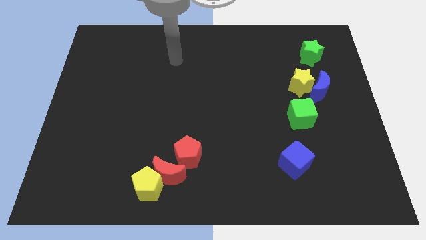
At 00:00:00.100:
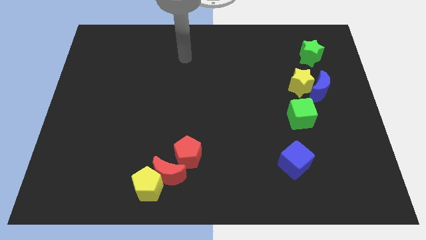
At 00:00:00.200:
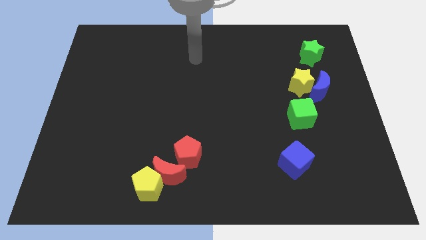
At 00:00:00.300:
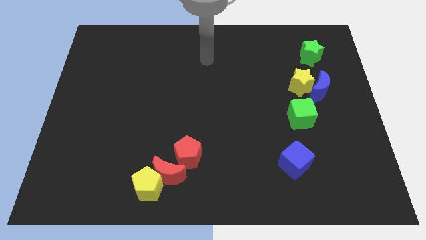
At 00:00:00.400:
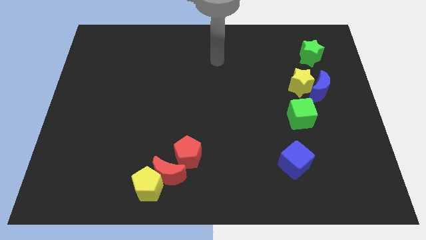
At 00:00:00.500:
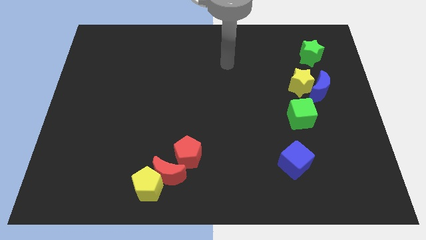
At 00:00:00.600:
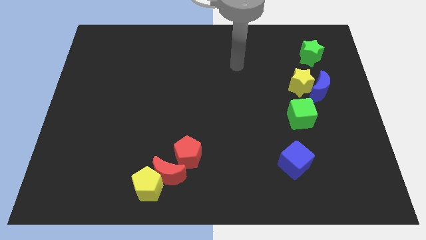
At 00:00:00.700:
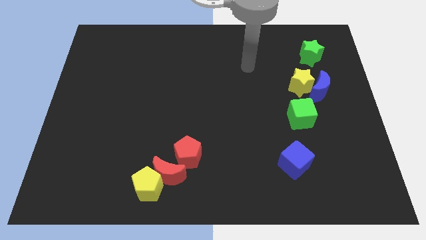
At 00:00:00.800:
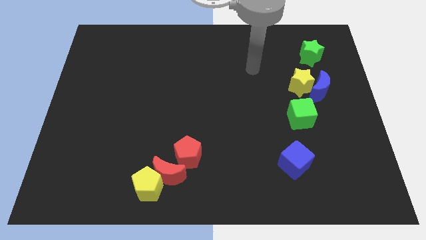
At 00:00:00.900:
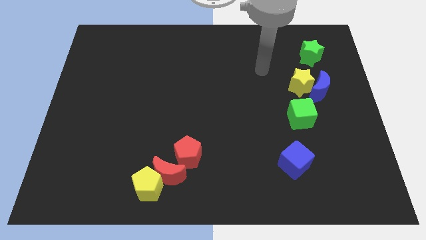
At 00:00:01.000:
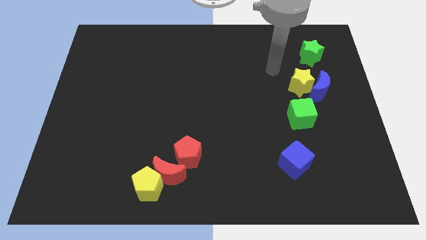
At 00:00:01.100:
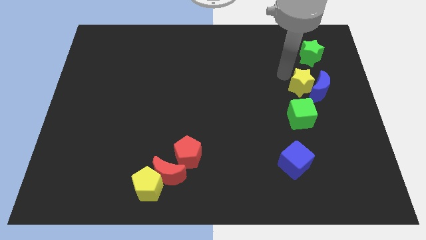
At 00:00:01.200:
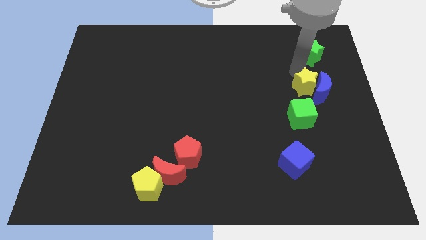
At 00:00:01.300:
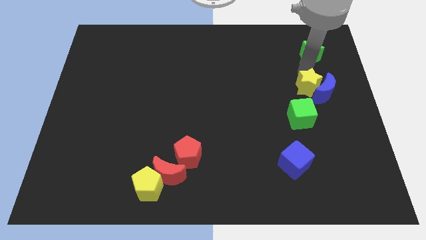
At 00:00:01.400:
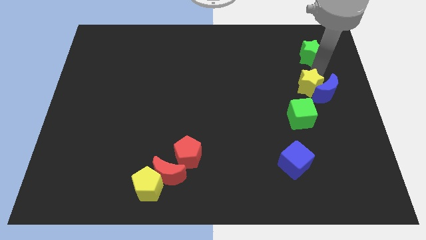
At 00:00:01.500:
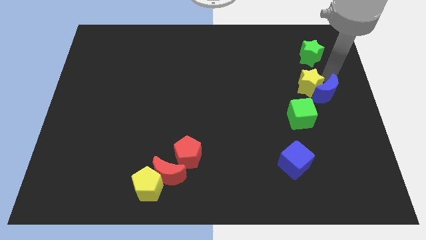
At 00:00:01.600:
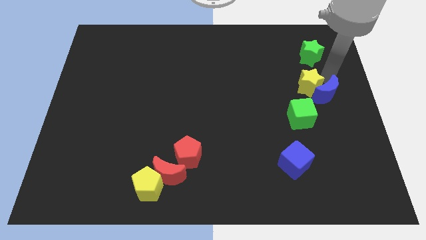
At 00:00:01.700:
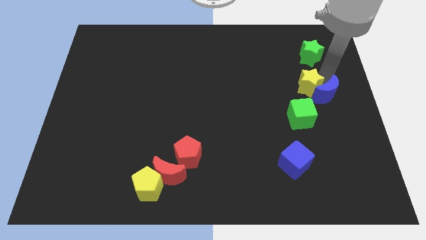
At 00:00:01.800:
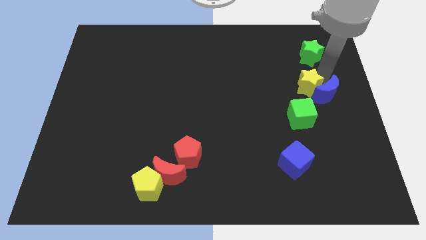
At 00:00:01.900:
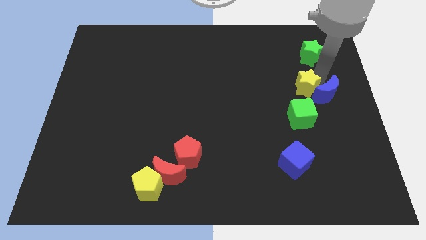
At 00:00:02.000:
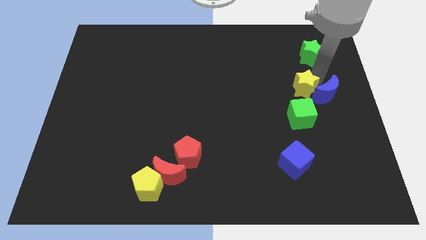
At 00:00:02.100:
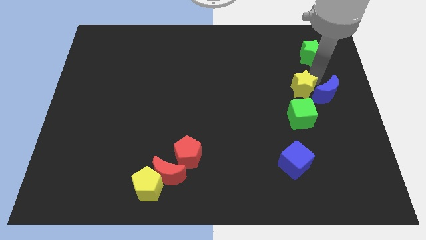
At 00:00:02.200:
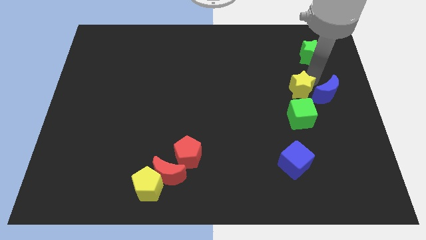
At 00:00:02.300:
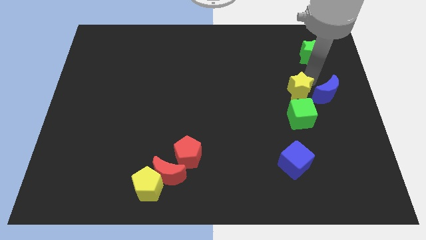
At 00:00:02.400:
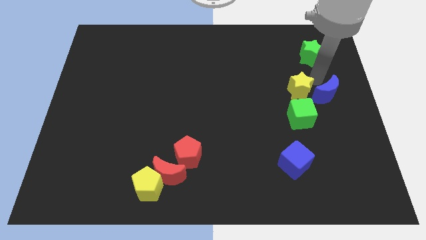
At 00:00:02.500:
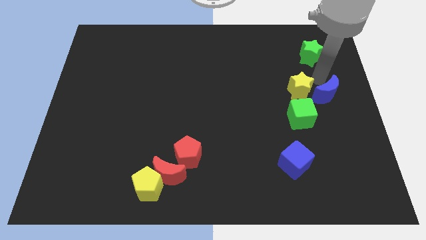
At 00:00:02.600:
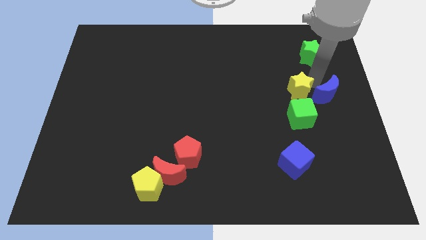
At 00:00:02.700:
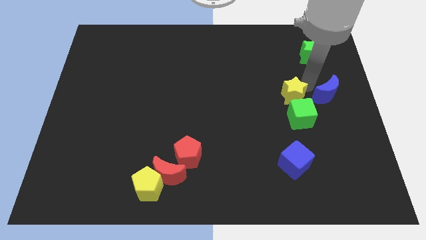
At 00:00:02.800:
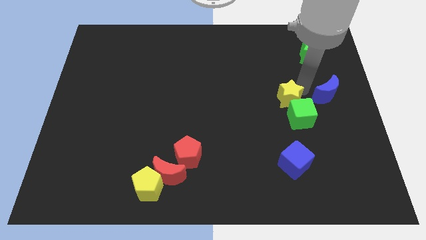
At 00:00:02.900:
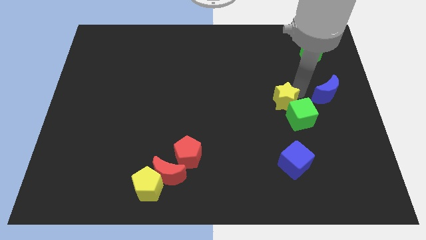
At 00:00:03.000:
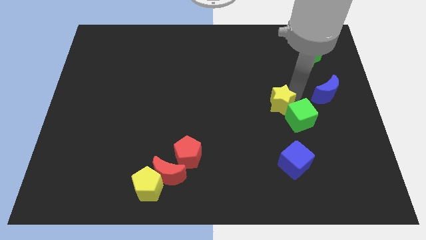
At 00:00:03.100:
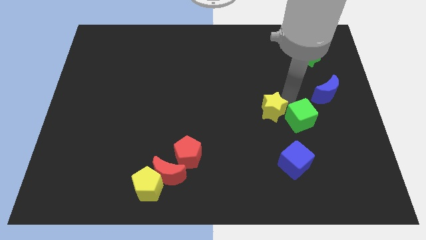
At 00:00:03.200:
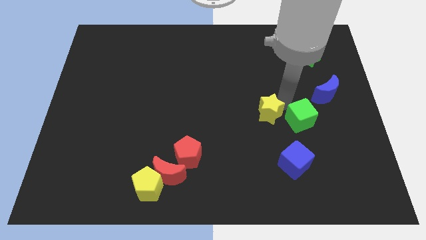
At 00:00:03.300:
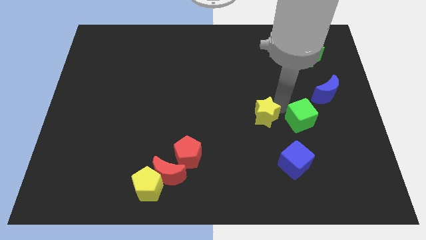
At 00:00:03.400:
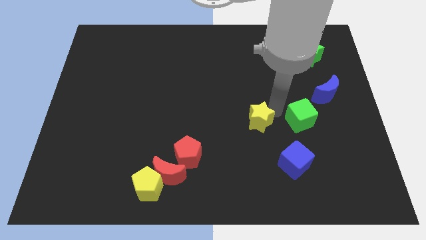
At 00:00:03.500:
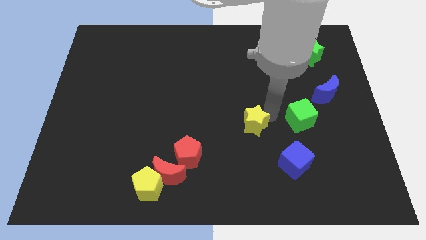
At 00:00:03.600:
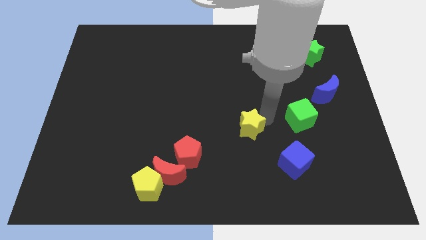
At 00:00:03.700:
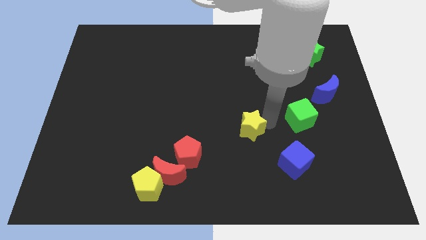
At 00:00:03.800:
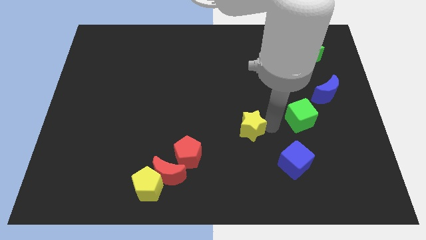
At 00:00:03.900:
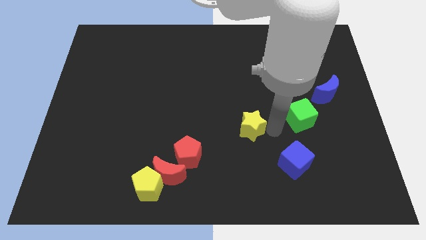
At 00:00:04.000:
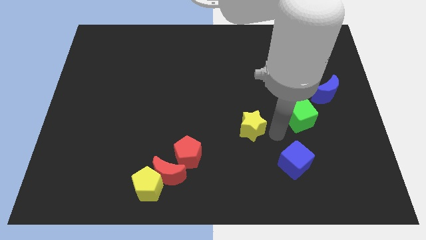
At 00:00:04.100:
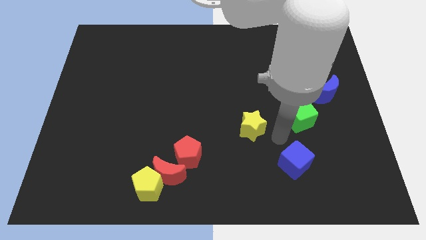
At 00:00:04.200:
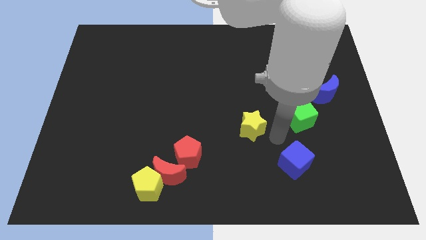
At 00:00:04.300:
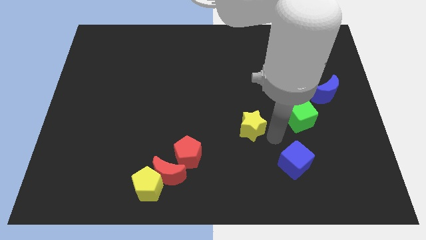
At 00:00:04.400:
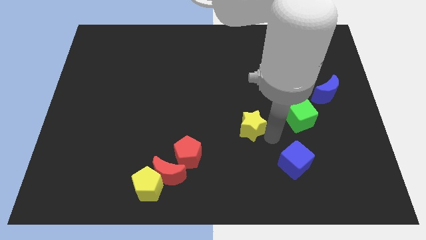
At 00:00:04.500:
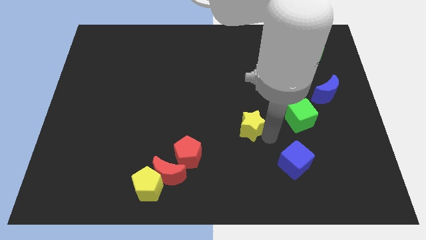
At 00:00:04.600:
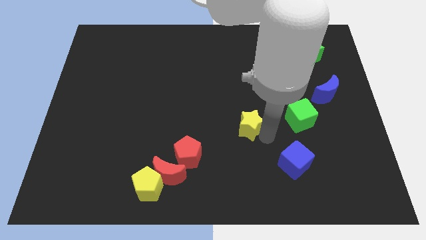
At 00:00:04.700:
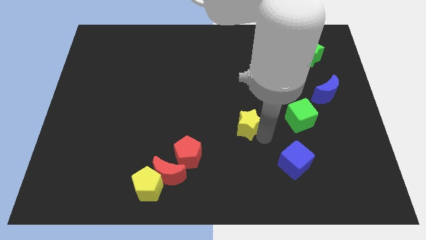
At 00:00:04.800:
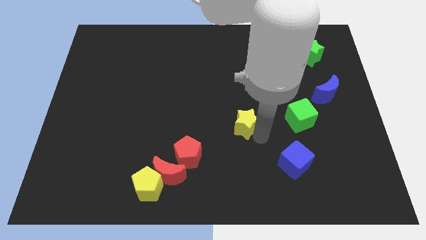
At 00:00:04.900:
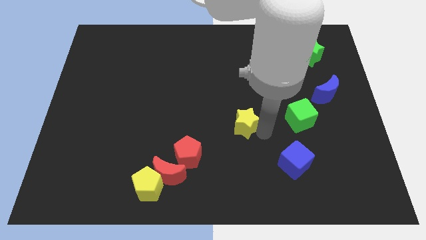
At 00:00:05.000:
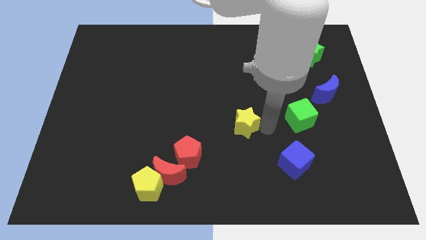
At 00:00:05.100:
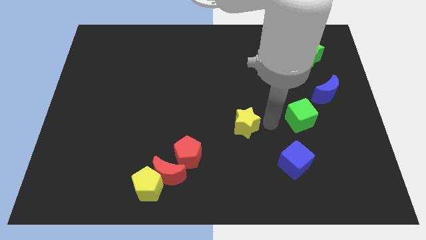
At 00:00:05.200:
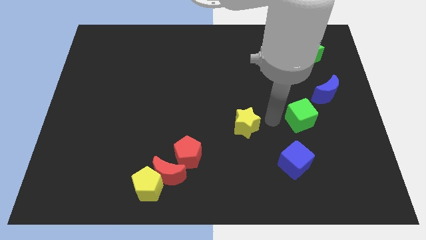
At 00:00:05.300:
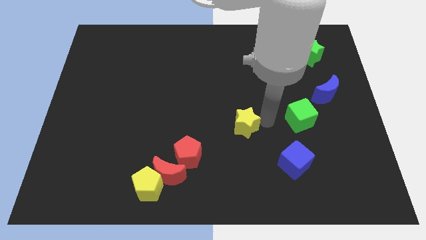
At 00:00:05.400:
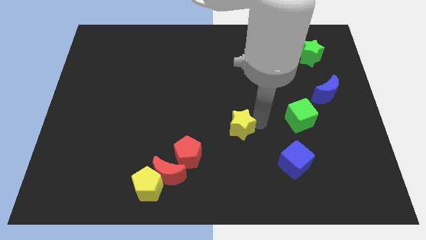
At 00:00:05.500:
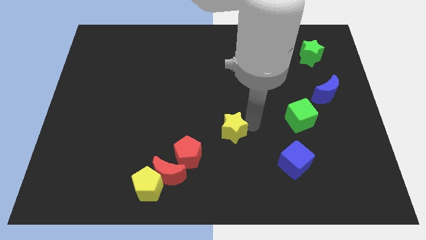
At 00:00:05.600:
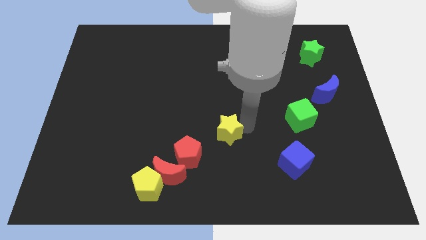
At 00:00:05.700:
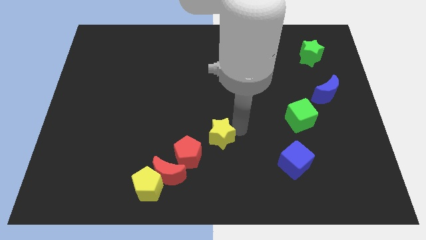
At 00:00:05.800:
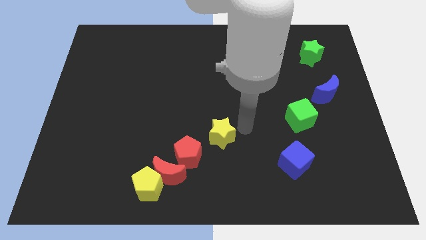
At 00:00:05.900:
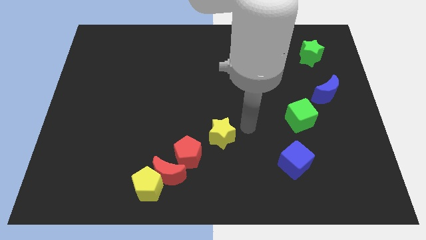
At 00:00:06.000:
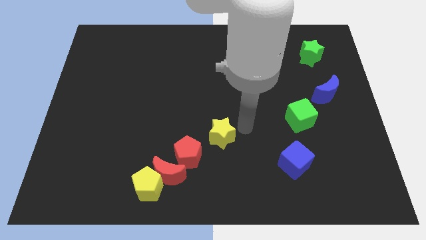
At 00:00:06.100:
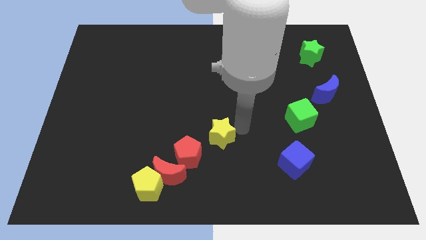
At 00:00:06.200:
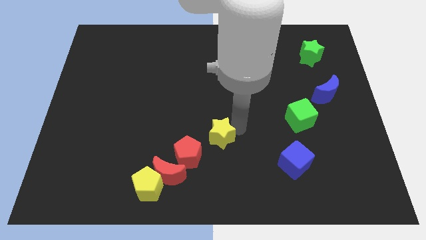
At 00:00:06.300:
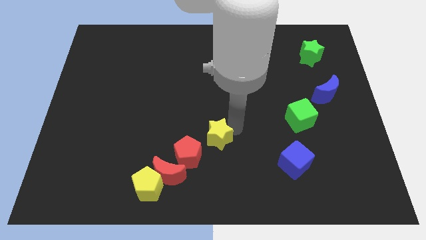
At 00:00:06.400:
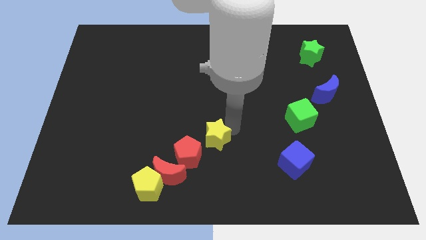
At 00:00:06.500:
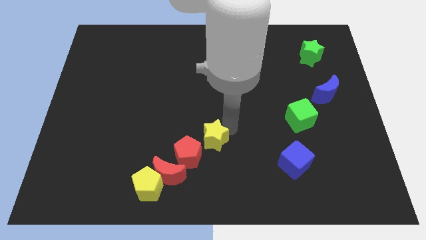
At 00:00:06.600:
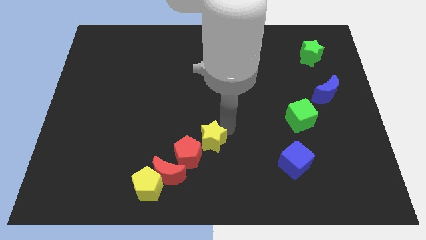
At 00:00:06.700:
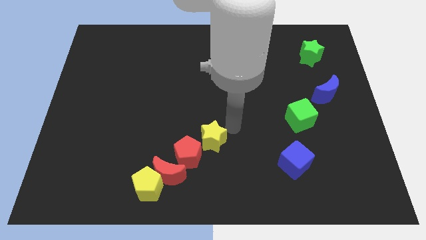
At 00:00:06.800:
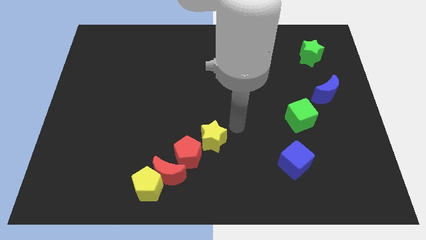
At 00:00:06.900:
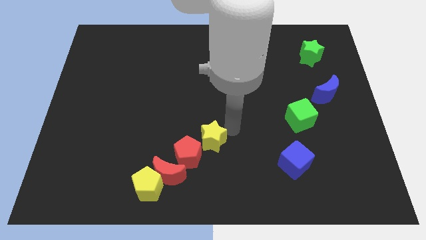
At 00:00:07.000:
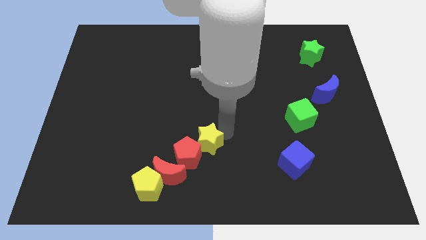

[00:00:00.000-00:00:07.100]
push the yellow star next to the red pentagon
